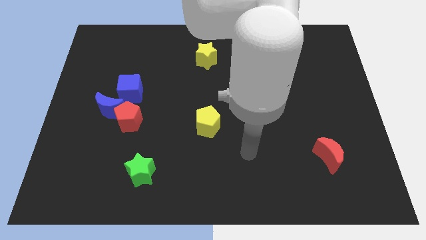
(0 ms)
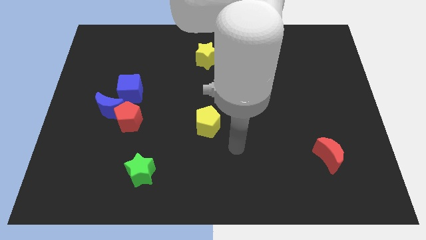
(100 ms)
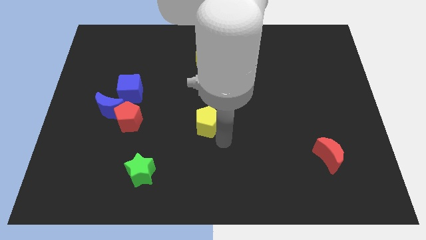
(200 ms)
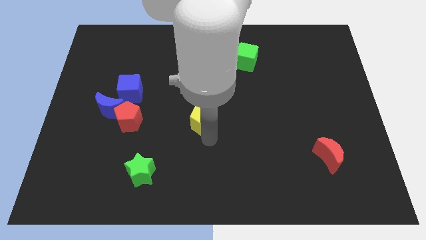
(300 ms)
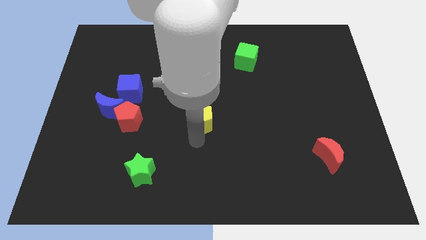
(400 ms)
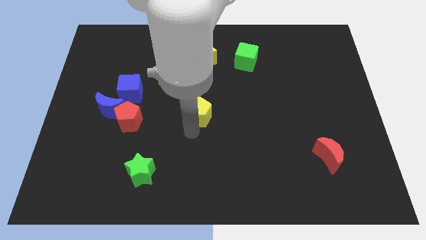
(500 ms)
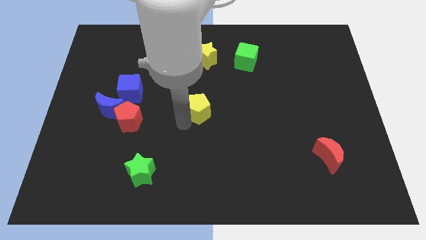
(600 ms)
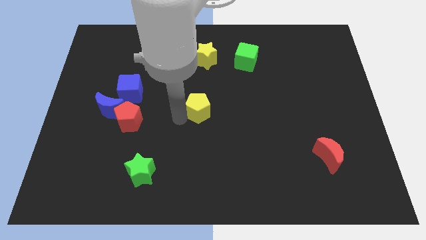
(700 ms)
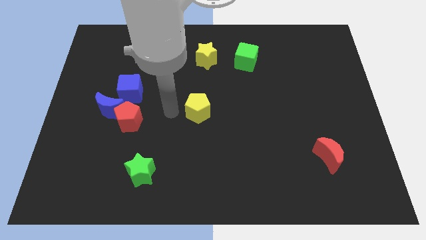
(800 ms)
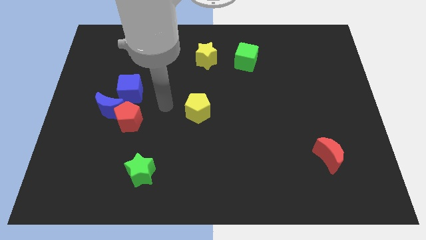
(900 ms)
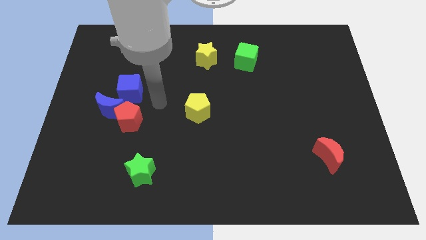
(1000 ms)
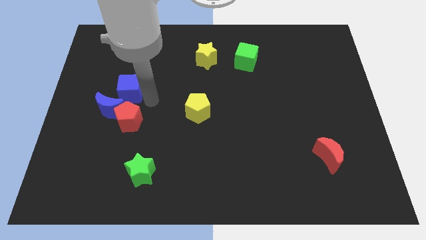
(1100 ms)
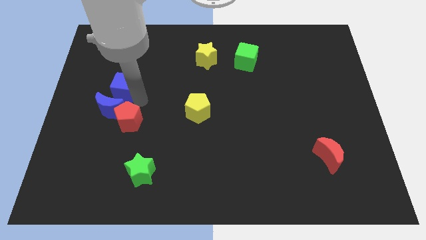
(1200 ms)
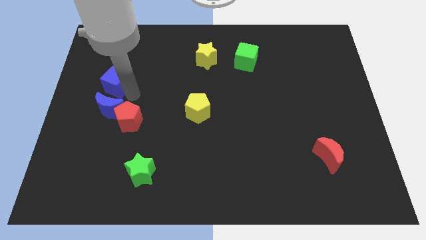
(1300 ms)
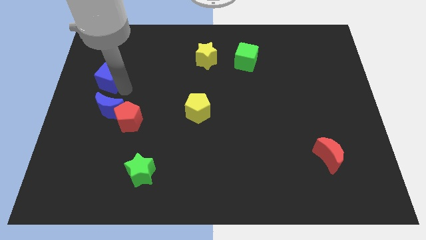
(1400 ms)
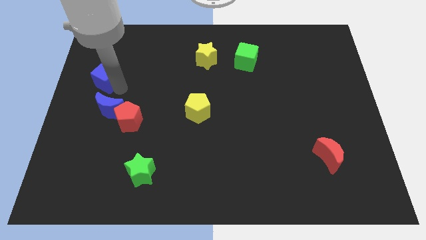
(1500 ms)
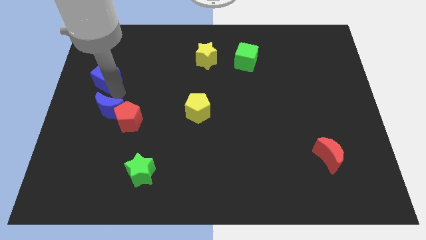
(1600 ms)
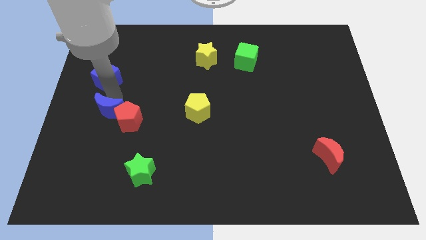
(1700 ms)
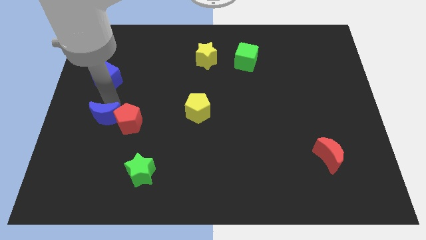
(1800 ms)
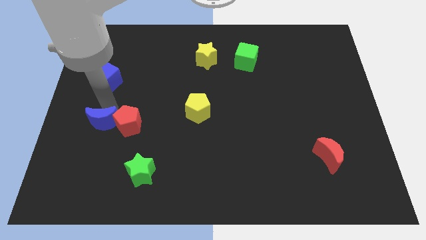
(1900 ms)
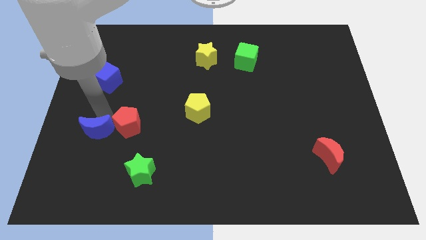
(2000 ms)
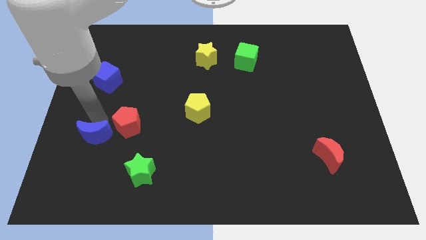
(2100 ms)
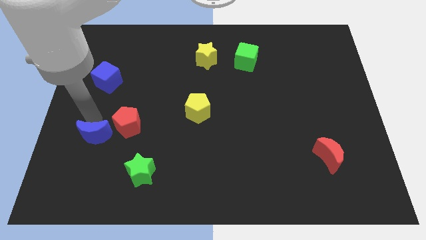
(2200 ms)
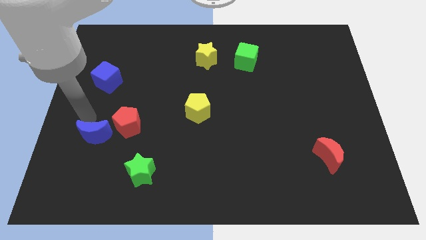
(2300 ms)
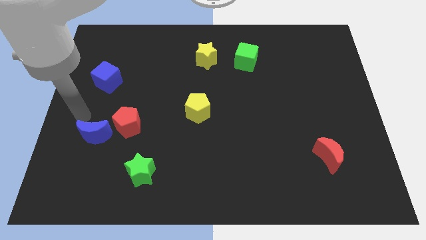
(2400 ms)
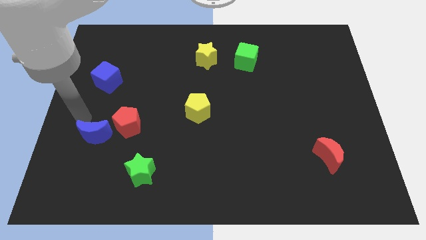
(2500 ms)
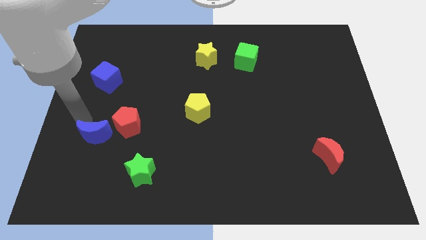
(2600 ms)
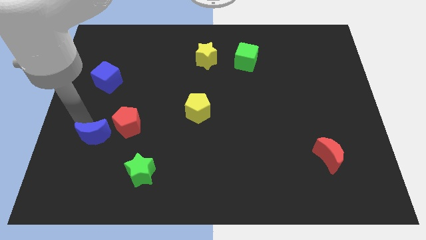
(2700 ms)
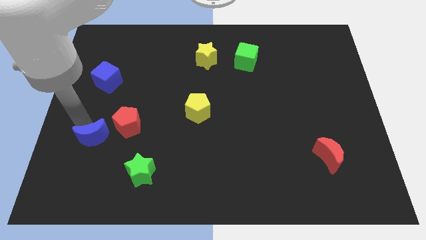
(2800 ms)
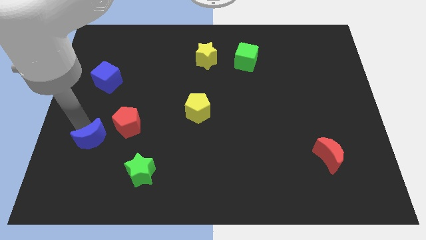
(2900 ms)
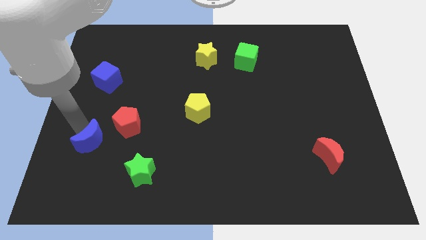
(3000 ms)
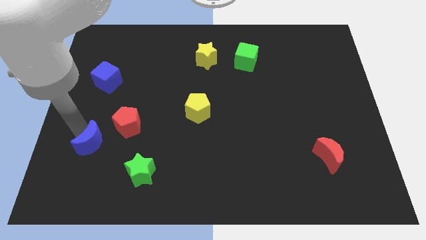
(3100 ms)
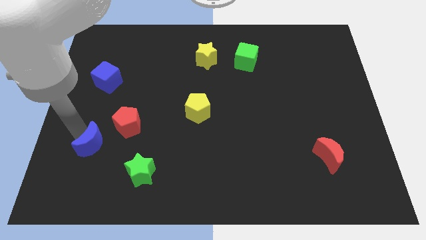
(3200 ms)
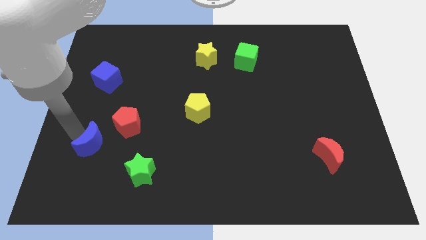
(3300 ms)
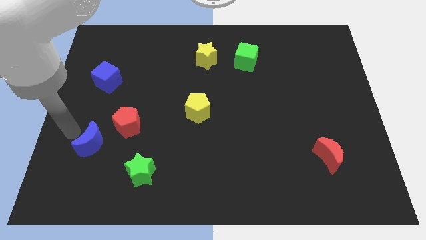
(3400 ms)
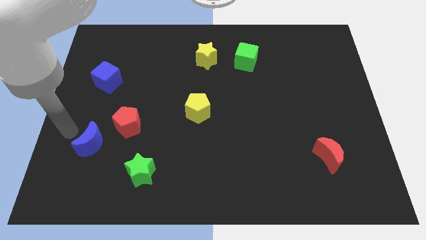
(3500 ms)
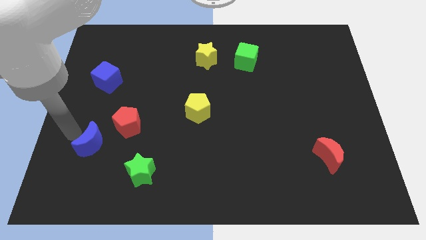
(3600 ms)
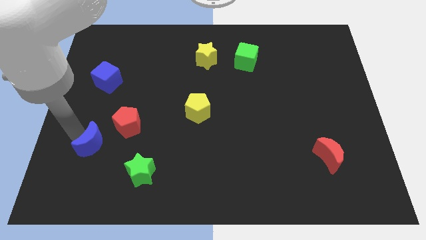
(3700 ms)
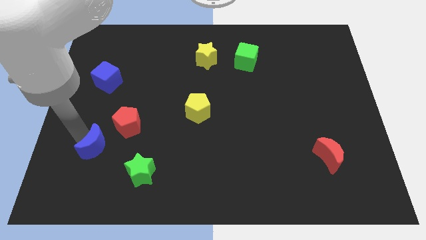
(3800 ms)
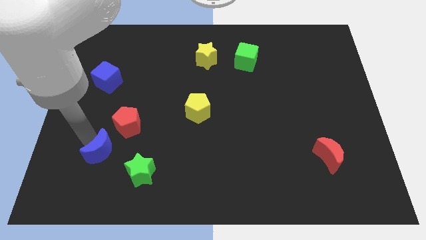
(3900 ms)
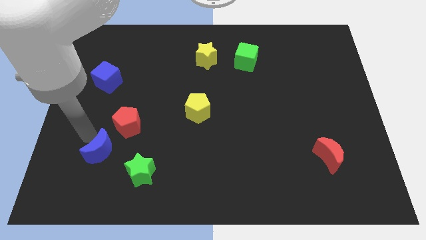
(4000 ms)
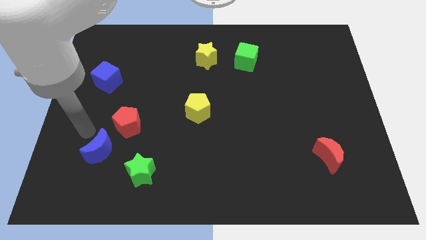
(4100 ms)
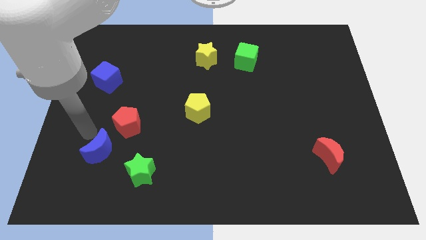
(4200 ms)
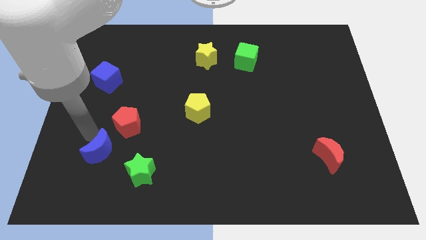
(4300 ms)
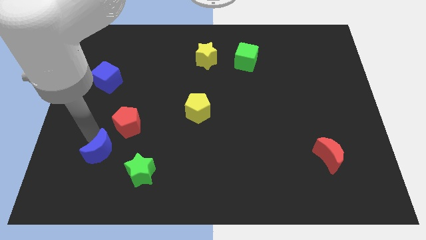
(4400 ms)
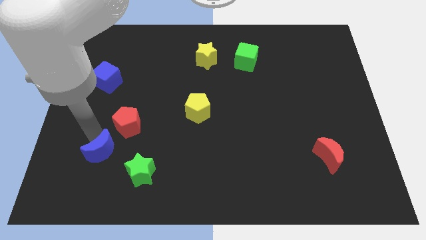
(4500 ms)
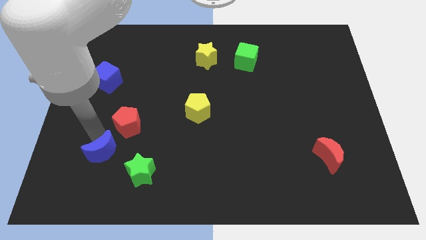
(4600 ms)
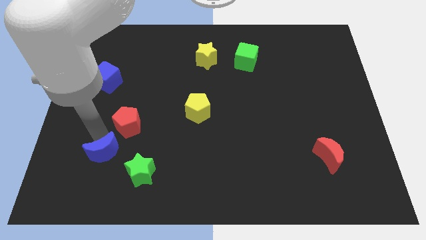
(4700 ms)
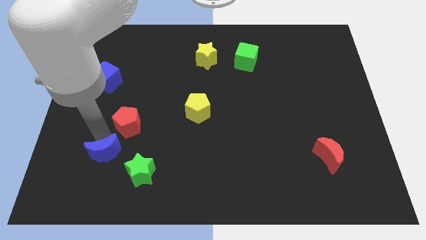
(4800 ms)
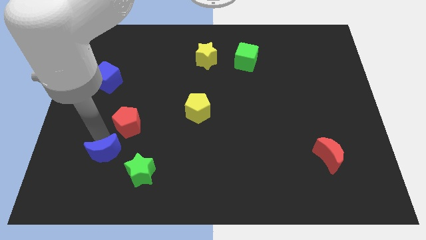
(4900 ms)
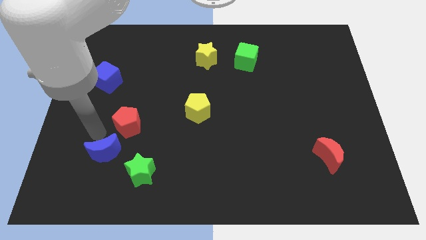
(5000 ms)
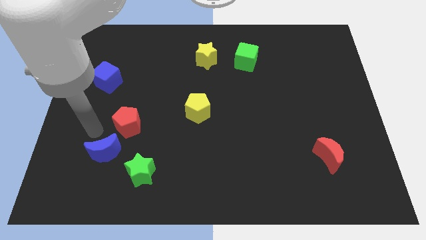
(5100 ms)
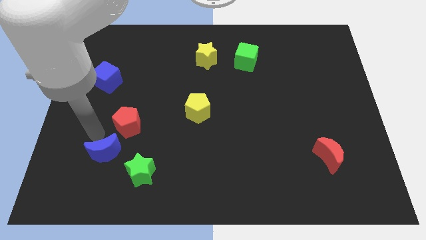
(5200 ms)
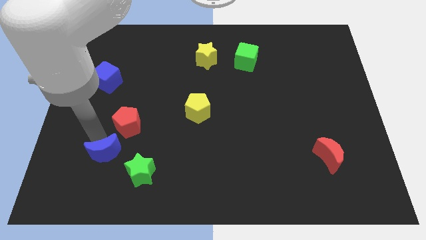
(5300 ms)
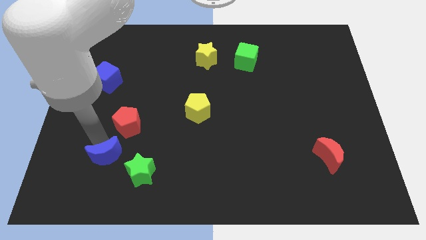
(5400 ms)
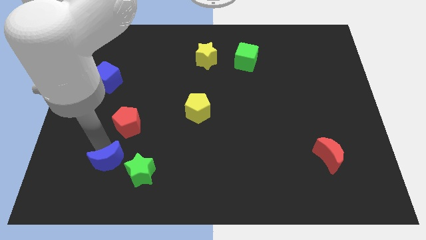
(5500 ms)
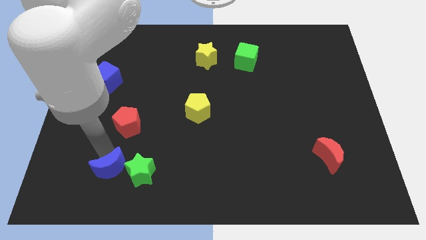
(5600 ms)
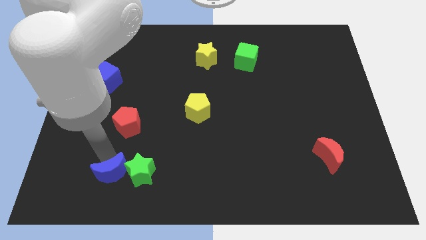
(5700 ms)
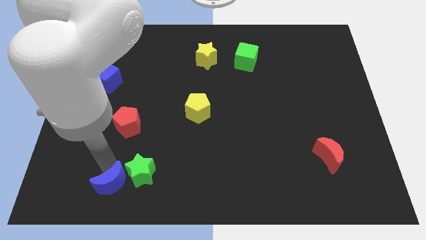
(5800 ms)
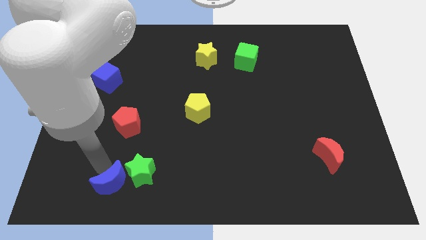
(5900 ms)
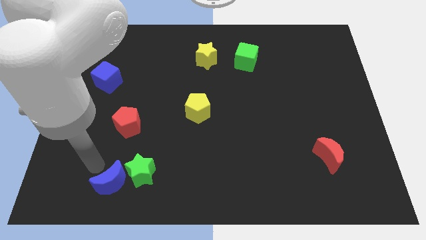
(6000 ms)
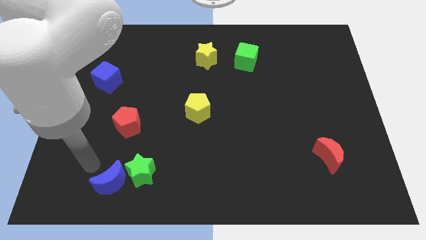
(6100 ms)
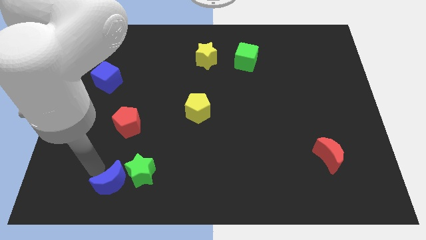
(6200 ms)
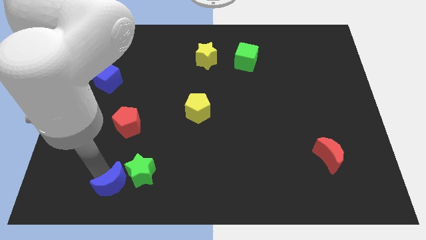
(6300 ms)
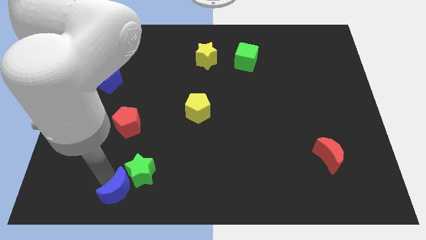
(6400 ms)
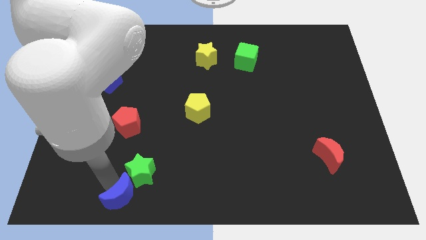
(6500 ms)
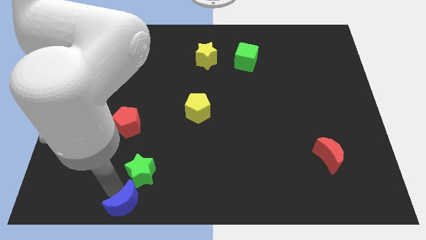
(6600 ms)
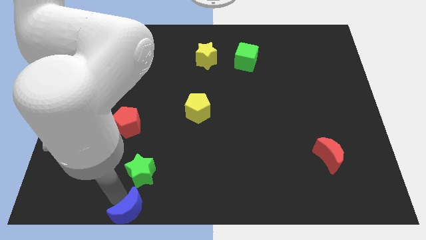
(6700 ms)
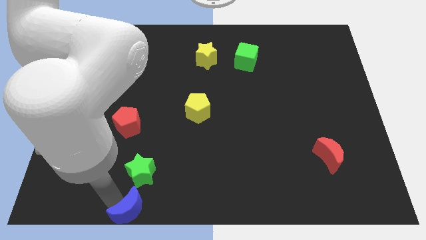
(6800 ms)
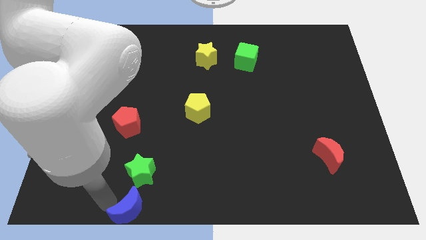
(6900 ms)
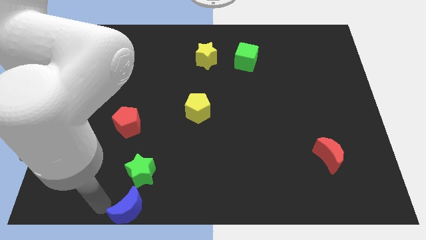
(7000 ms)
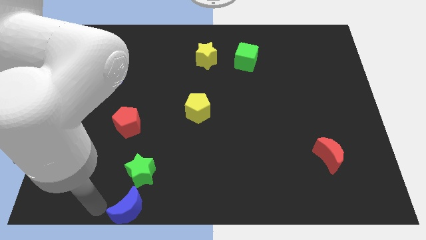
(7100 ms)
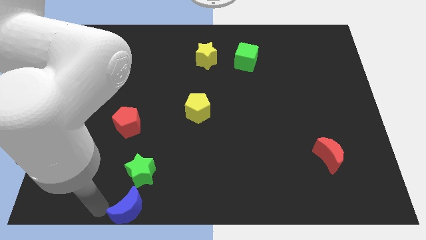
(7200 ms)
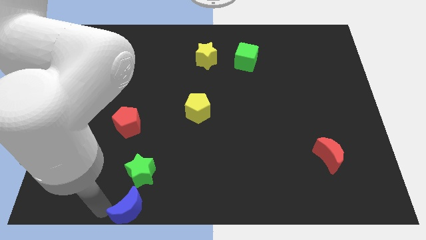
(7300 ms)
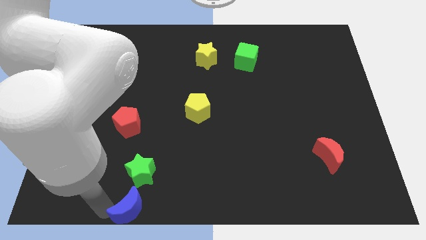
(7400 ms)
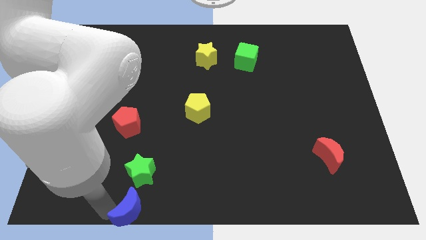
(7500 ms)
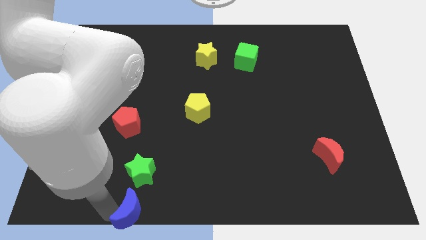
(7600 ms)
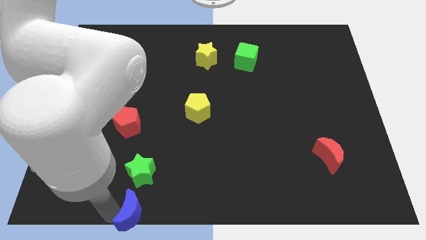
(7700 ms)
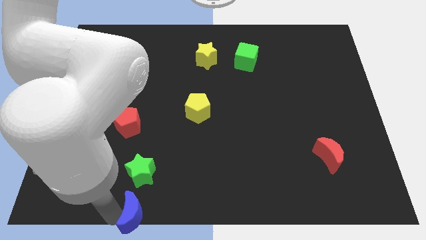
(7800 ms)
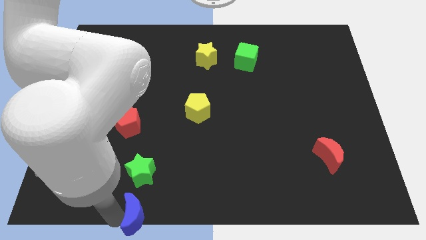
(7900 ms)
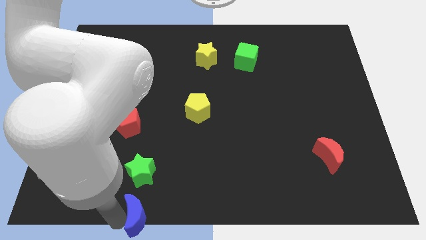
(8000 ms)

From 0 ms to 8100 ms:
slide the blue moon to the bottom
